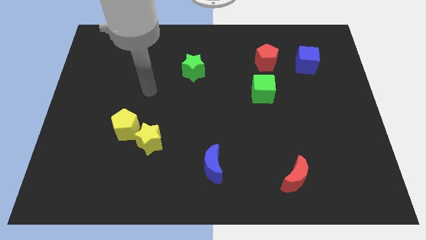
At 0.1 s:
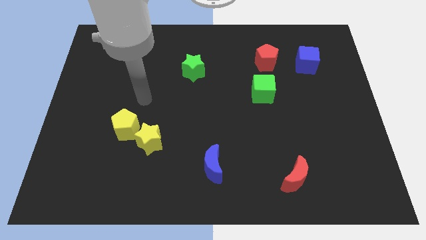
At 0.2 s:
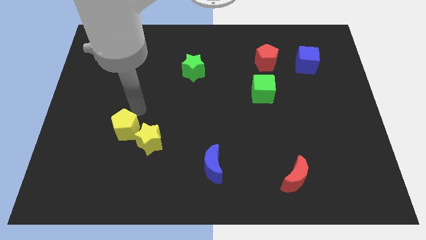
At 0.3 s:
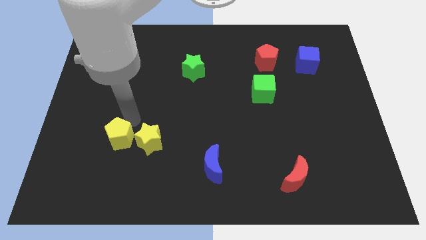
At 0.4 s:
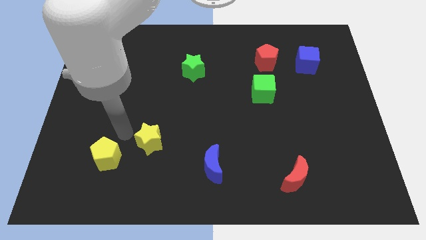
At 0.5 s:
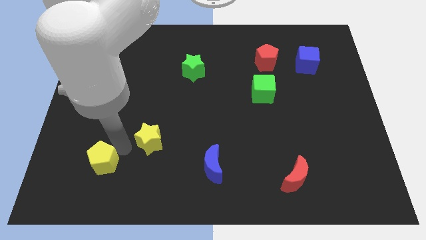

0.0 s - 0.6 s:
move the yellow star away from the yellow pentagon

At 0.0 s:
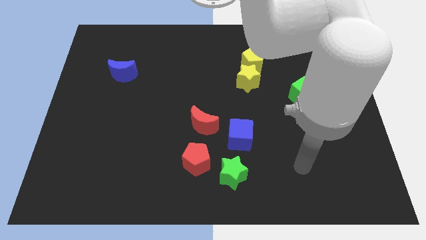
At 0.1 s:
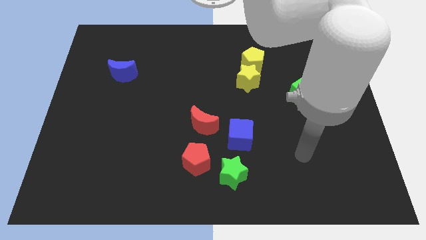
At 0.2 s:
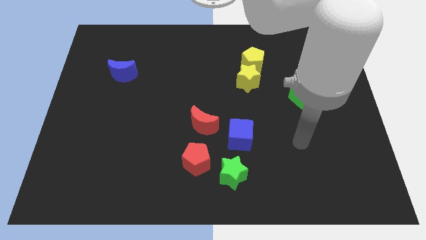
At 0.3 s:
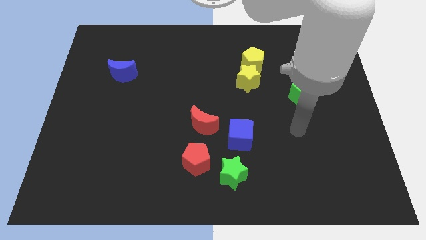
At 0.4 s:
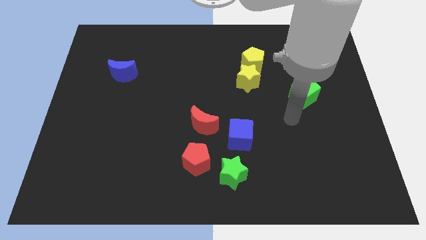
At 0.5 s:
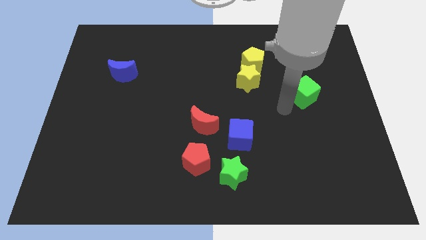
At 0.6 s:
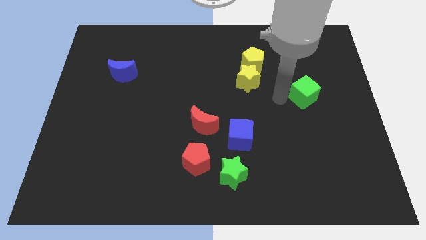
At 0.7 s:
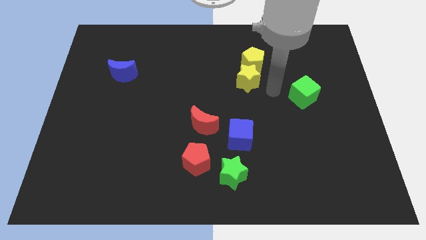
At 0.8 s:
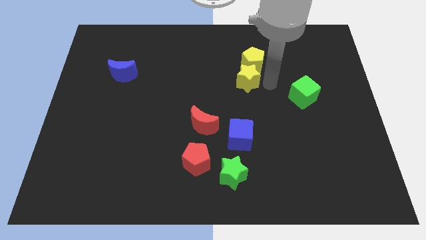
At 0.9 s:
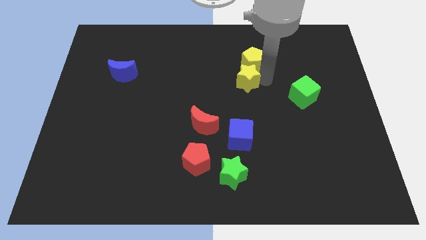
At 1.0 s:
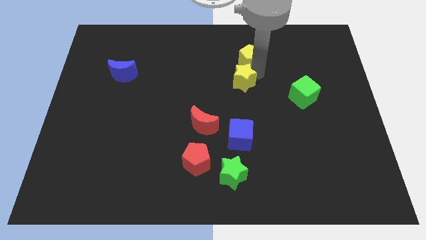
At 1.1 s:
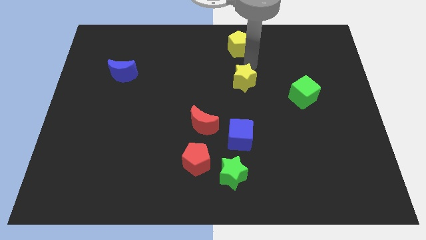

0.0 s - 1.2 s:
separate the yellow star from the yellow pentagon

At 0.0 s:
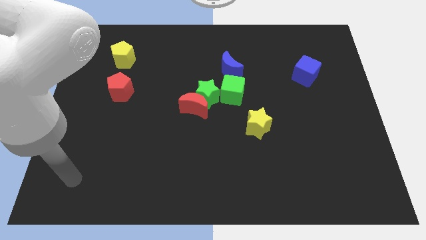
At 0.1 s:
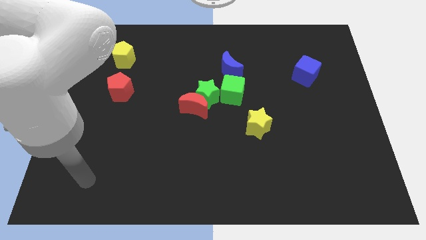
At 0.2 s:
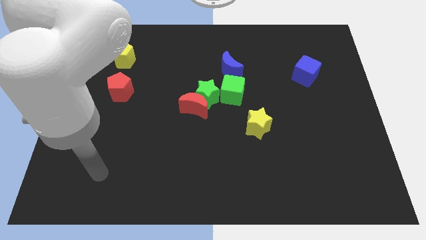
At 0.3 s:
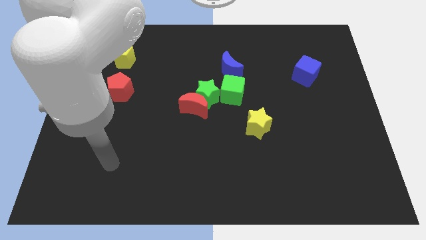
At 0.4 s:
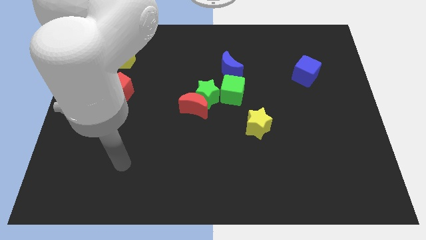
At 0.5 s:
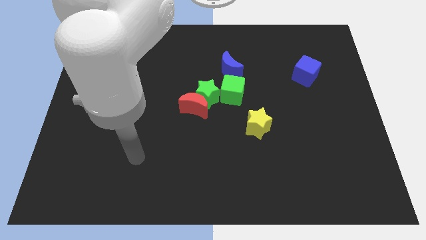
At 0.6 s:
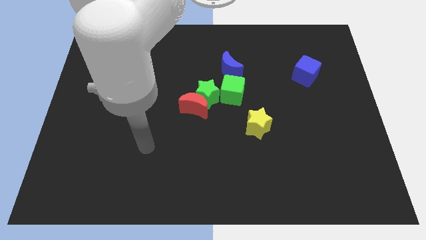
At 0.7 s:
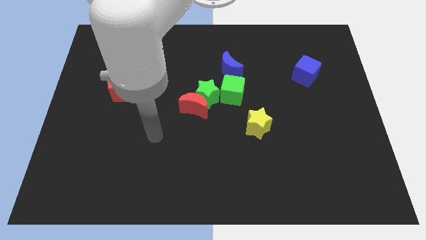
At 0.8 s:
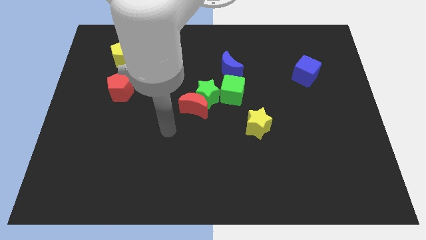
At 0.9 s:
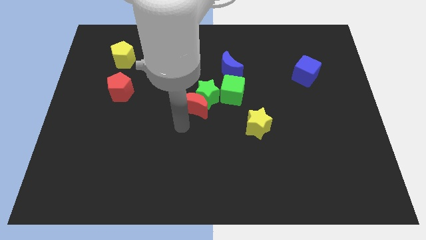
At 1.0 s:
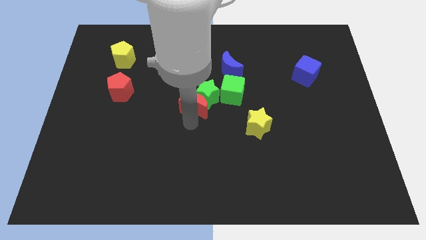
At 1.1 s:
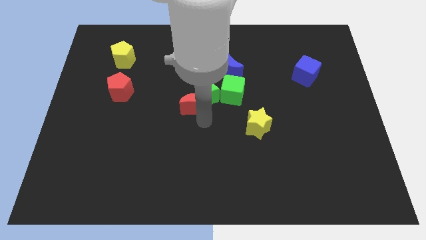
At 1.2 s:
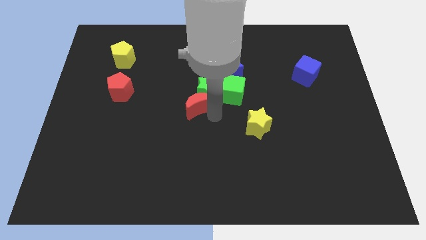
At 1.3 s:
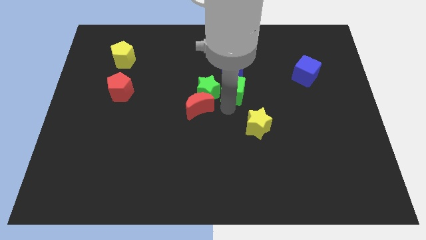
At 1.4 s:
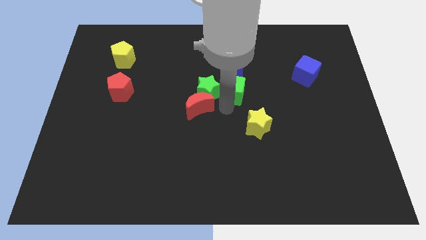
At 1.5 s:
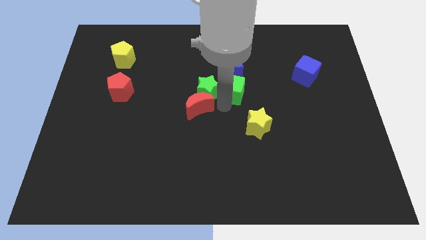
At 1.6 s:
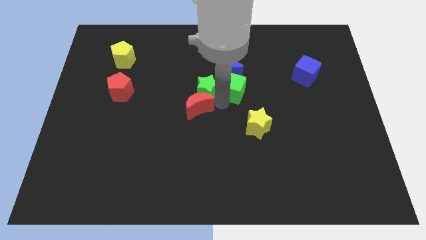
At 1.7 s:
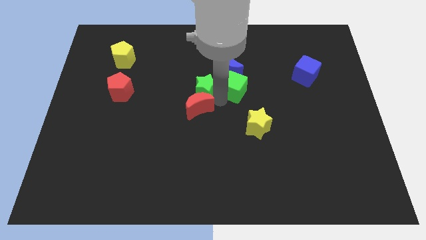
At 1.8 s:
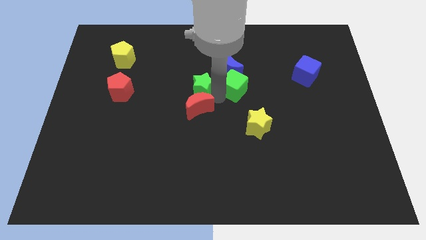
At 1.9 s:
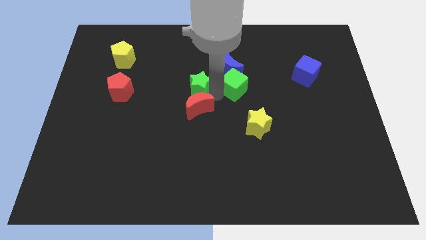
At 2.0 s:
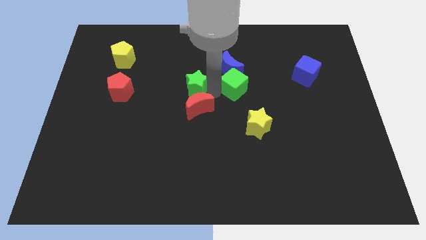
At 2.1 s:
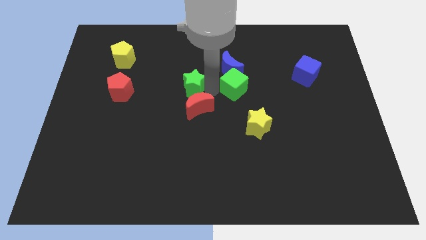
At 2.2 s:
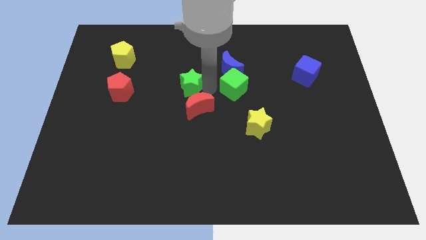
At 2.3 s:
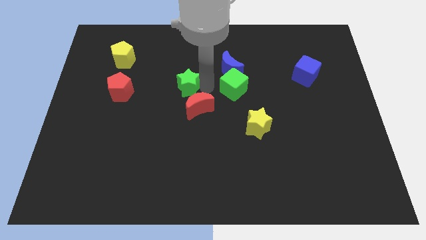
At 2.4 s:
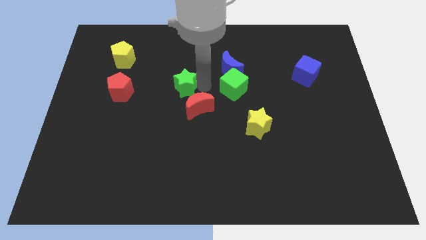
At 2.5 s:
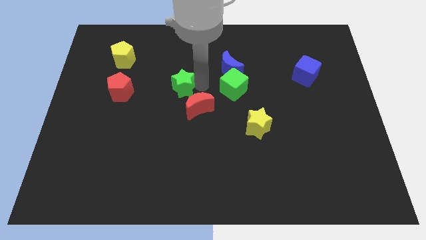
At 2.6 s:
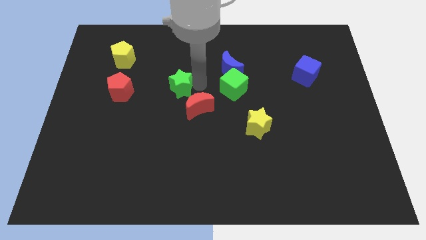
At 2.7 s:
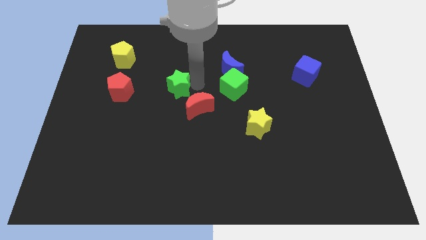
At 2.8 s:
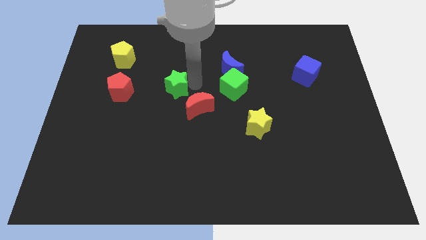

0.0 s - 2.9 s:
pull the green star apart from the red moon and green cube

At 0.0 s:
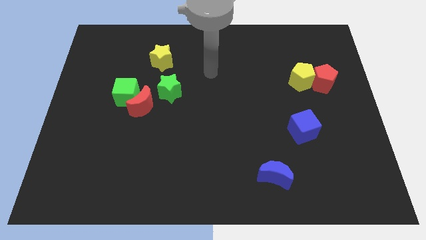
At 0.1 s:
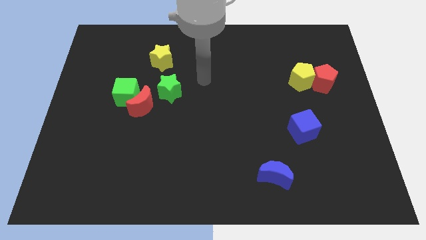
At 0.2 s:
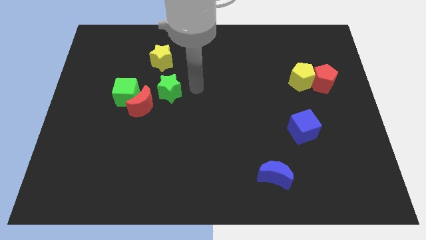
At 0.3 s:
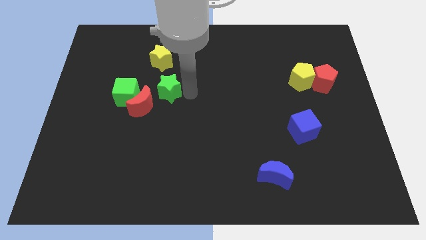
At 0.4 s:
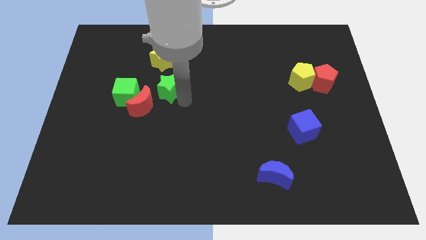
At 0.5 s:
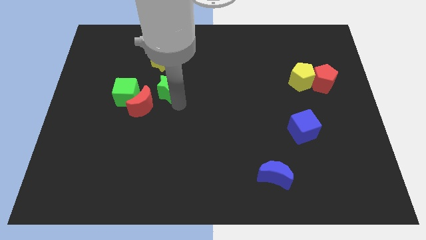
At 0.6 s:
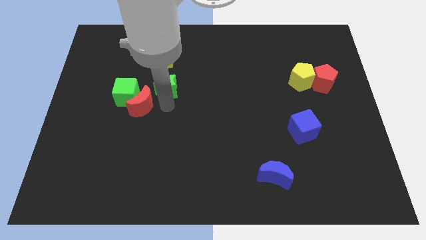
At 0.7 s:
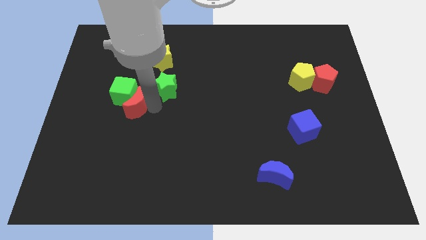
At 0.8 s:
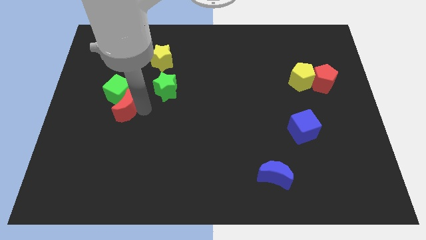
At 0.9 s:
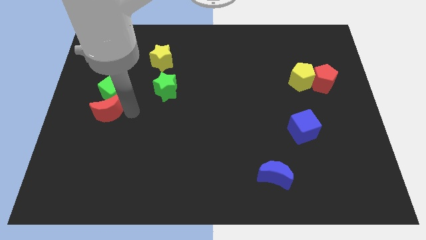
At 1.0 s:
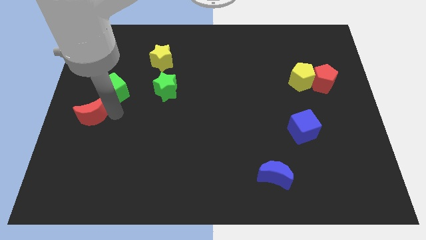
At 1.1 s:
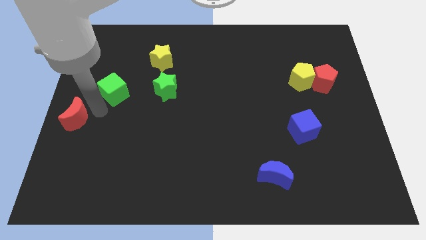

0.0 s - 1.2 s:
pull the green cube apart from the red moon

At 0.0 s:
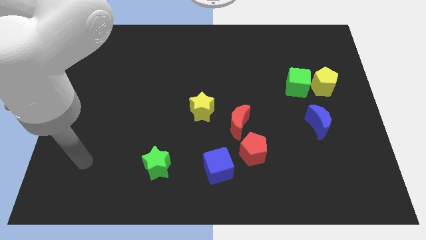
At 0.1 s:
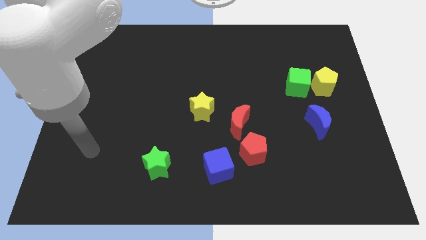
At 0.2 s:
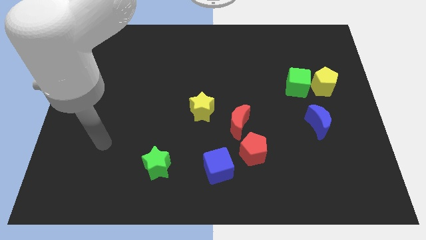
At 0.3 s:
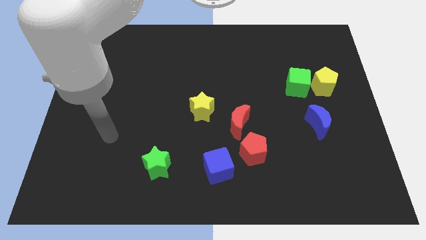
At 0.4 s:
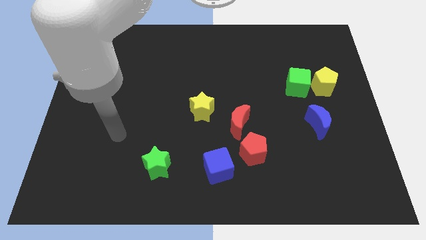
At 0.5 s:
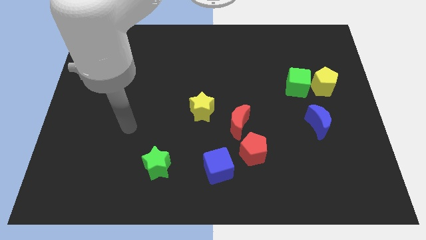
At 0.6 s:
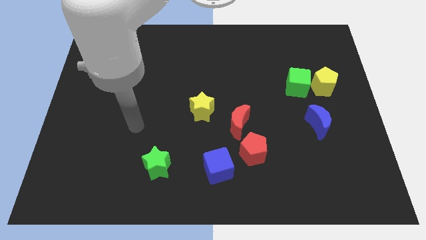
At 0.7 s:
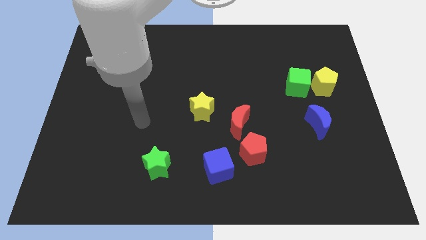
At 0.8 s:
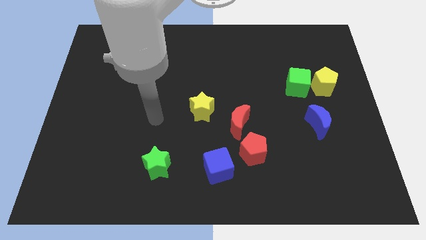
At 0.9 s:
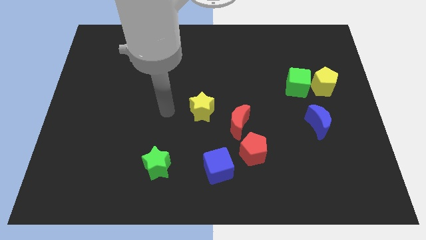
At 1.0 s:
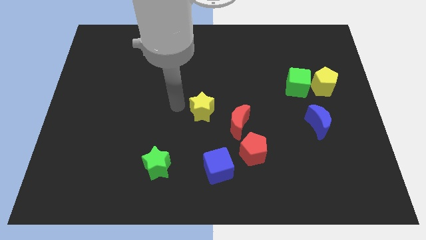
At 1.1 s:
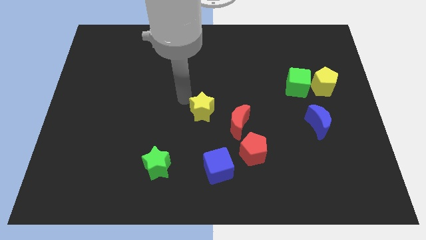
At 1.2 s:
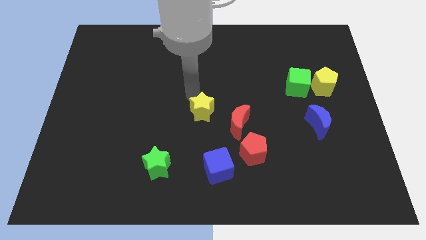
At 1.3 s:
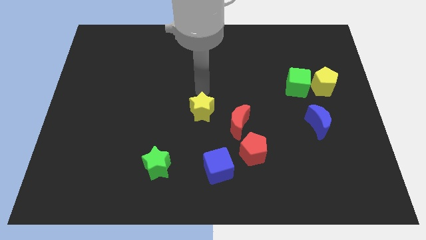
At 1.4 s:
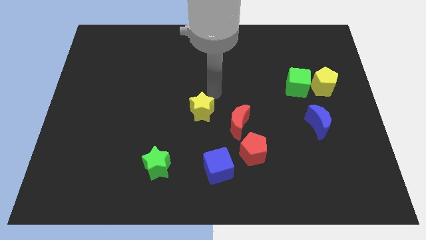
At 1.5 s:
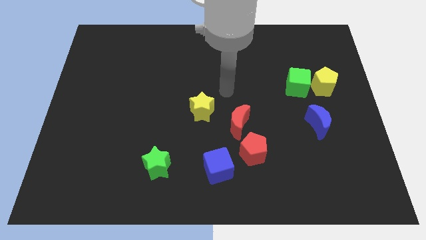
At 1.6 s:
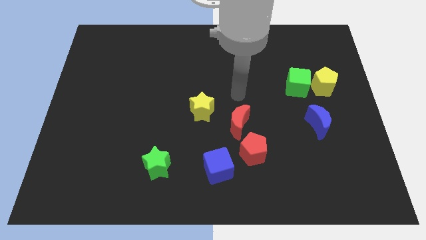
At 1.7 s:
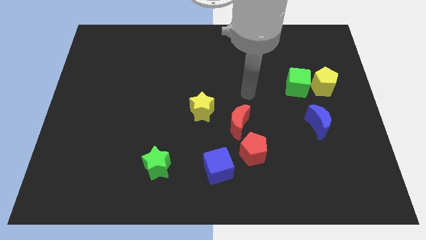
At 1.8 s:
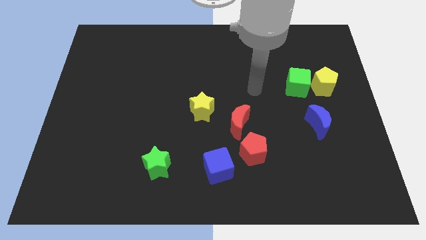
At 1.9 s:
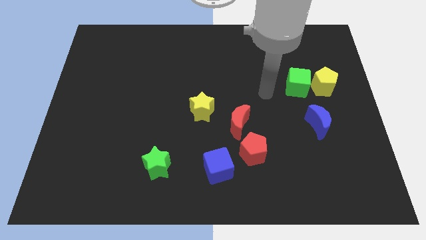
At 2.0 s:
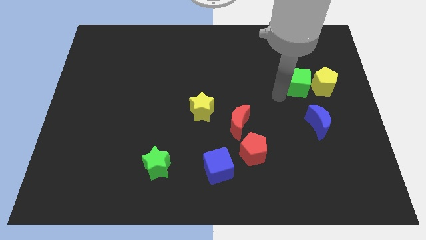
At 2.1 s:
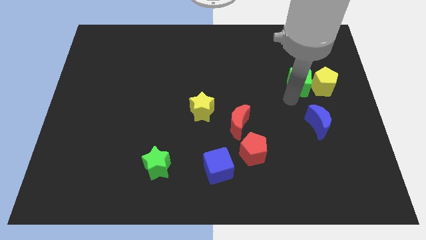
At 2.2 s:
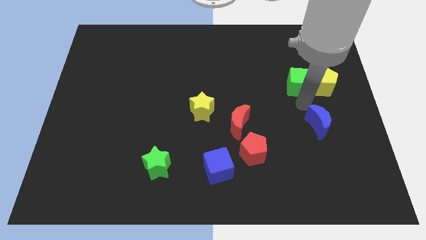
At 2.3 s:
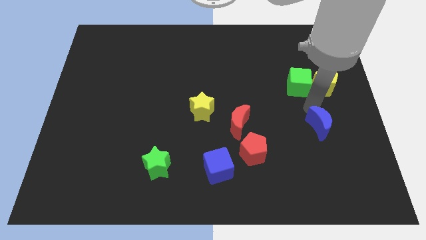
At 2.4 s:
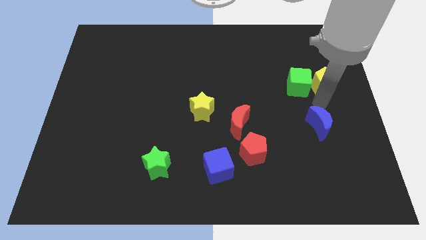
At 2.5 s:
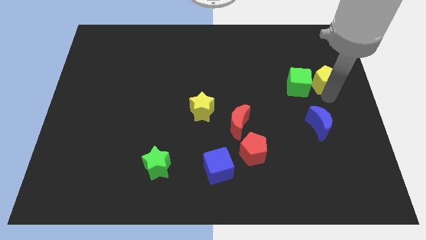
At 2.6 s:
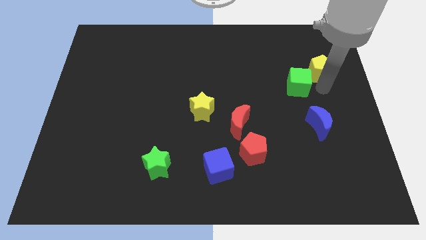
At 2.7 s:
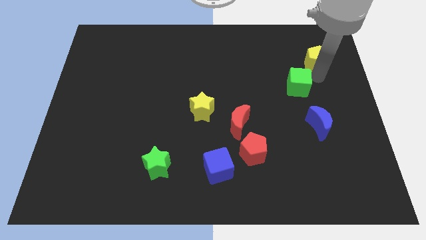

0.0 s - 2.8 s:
separate the green cube from the yellow pentagon

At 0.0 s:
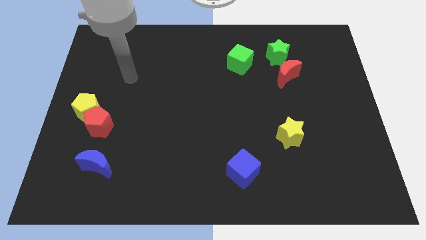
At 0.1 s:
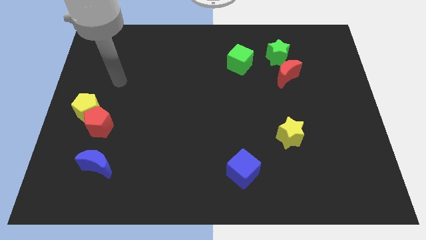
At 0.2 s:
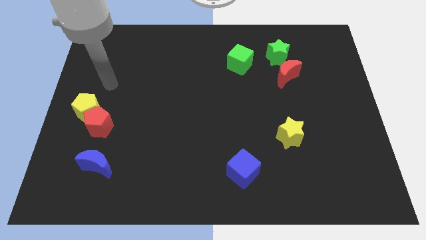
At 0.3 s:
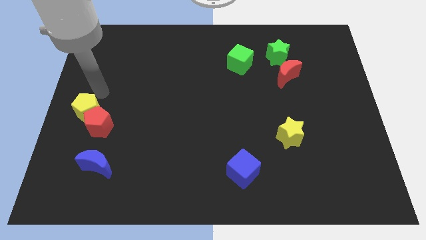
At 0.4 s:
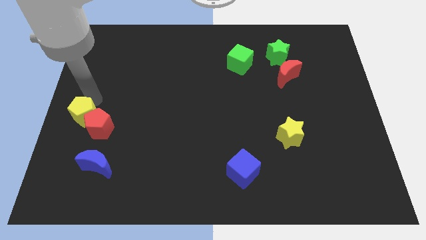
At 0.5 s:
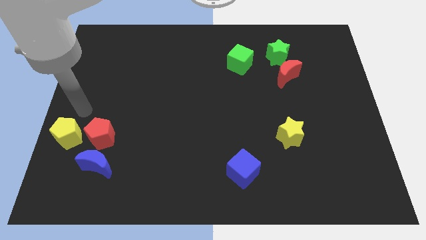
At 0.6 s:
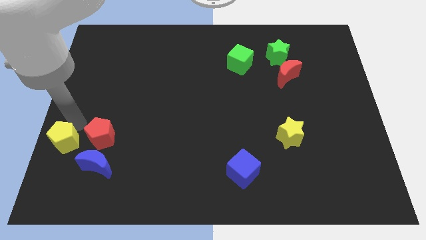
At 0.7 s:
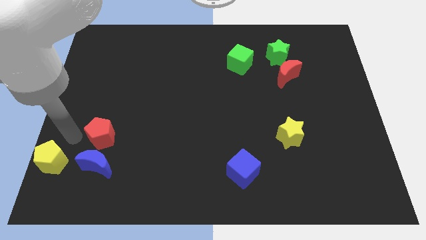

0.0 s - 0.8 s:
pull the red pentagon apart from the yellow pentagon
